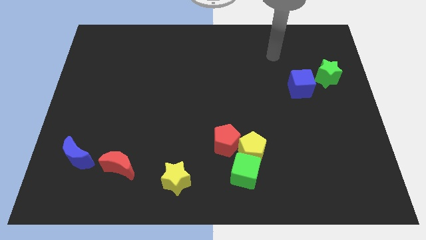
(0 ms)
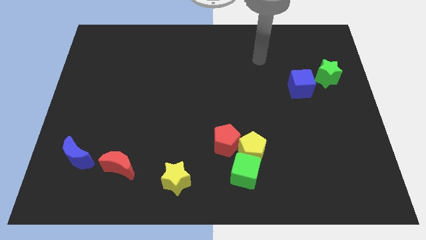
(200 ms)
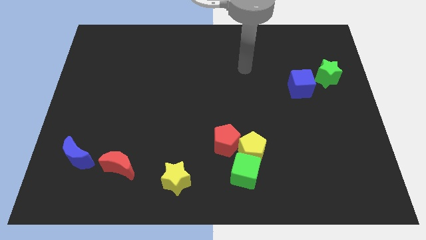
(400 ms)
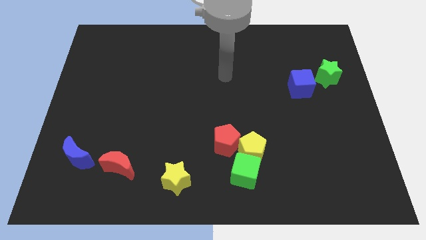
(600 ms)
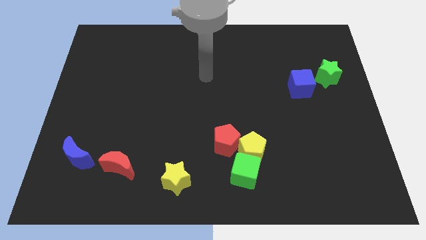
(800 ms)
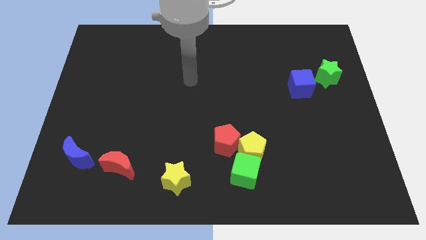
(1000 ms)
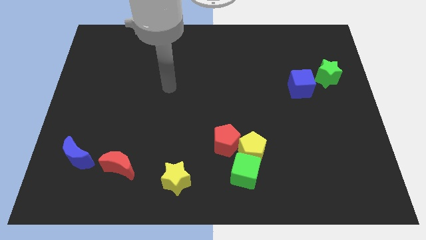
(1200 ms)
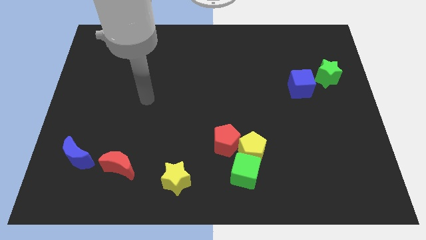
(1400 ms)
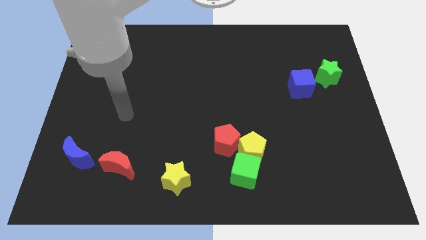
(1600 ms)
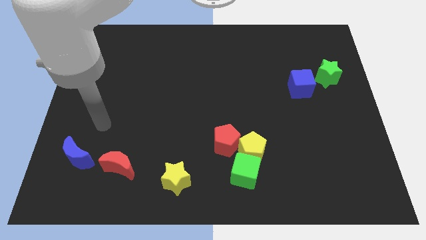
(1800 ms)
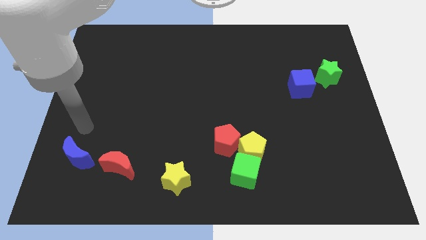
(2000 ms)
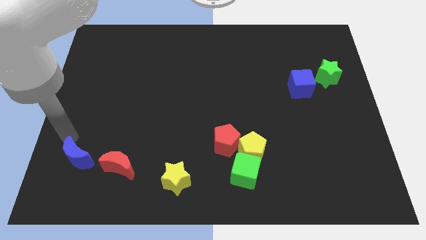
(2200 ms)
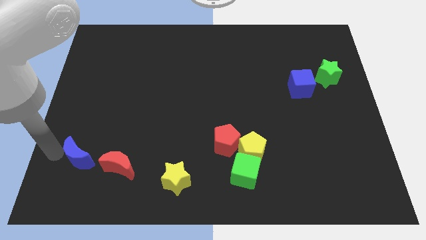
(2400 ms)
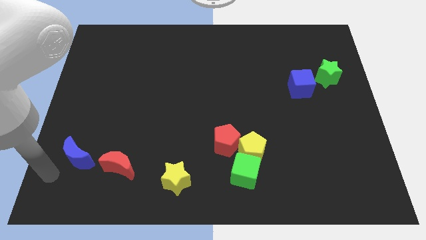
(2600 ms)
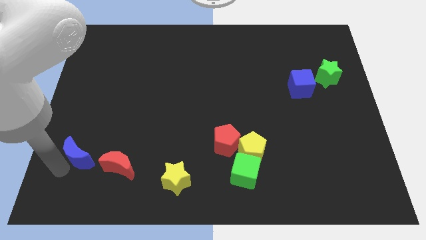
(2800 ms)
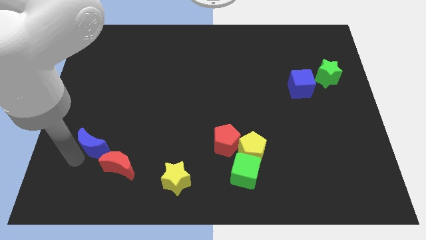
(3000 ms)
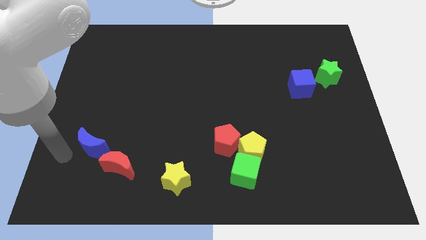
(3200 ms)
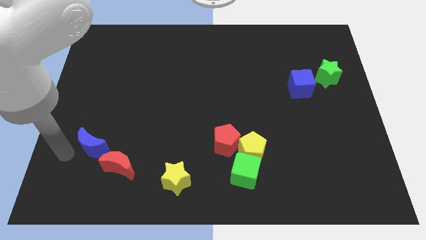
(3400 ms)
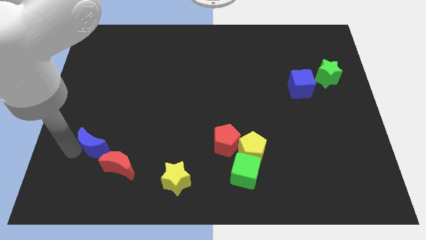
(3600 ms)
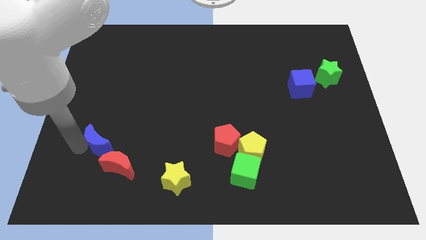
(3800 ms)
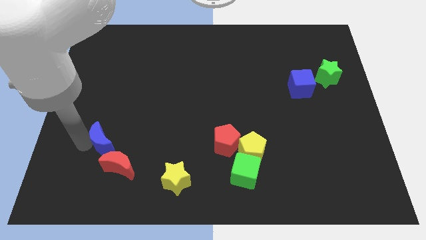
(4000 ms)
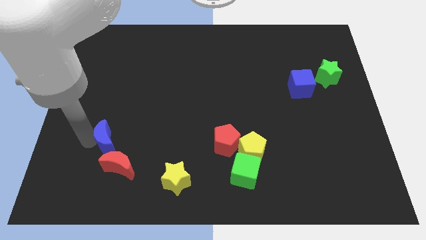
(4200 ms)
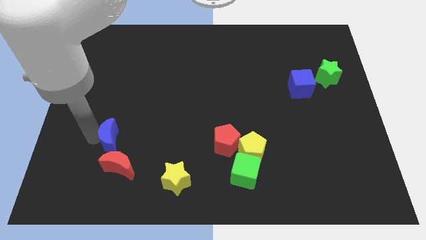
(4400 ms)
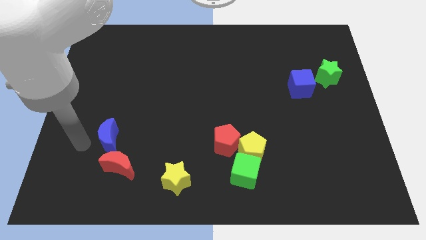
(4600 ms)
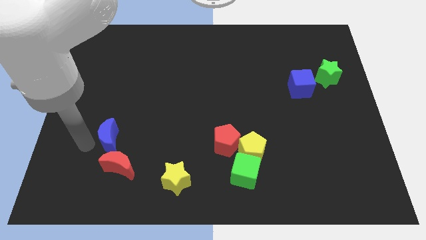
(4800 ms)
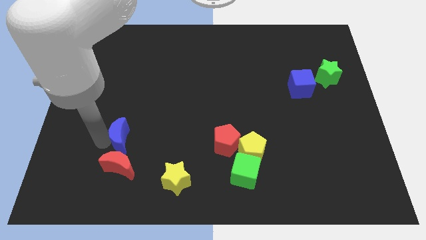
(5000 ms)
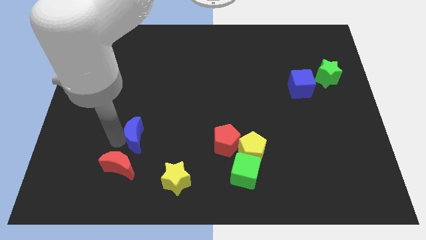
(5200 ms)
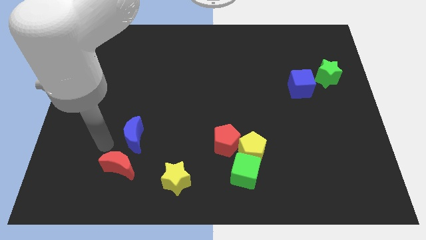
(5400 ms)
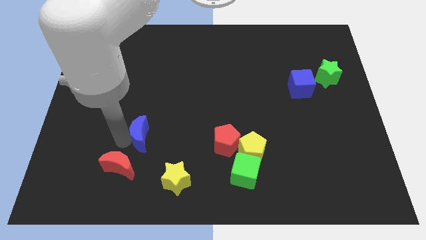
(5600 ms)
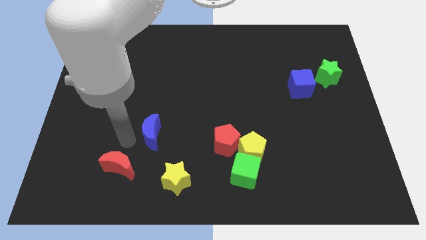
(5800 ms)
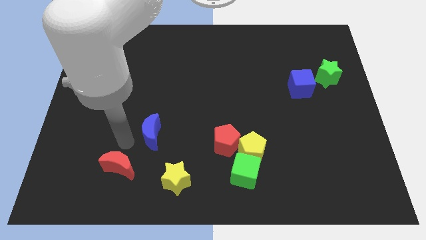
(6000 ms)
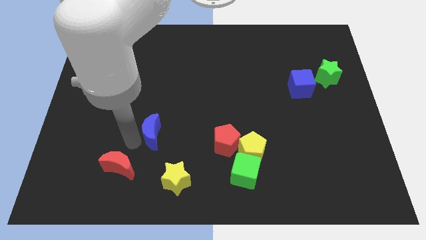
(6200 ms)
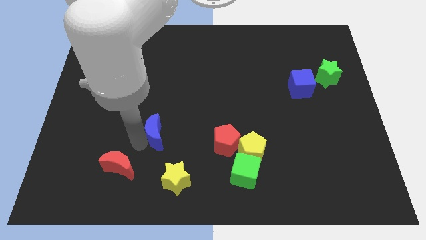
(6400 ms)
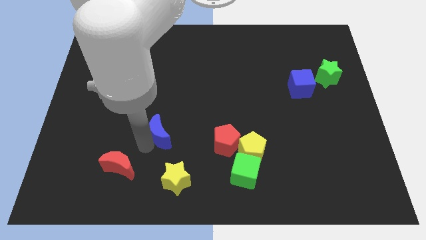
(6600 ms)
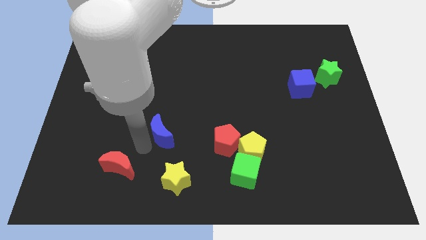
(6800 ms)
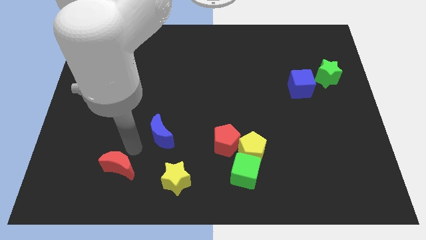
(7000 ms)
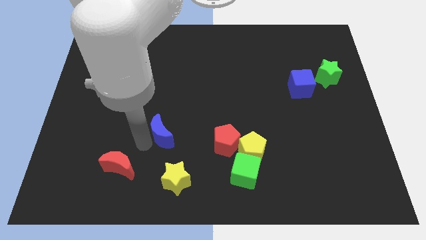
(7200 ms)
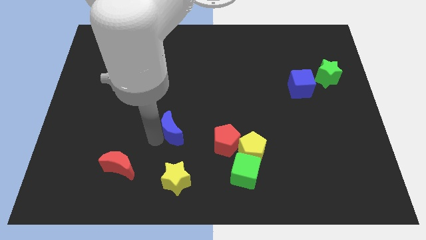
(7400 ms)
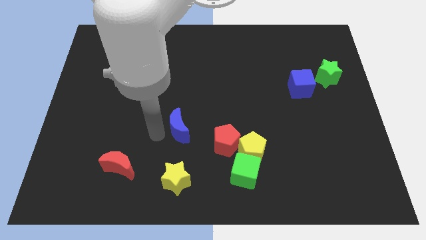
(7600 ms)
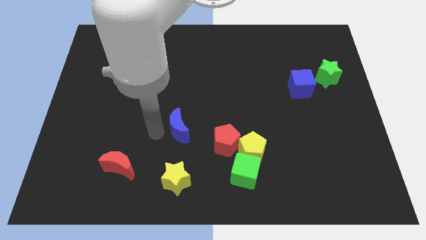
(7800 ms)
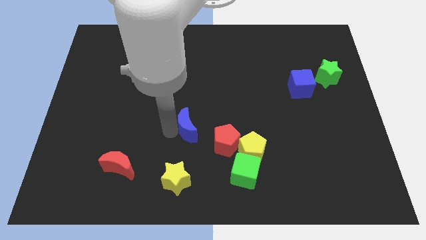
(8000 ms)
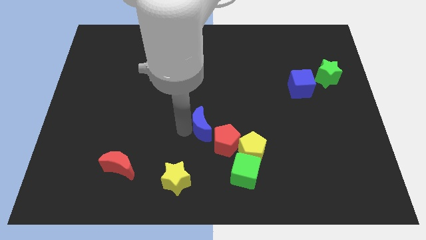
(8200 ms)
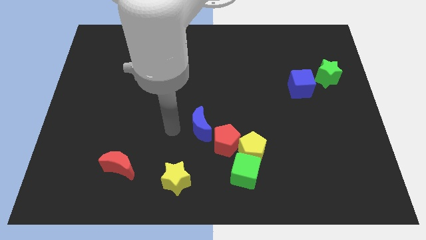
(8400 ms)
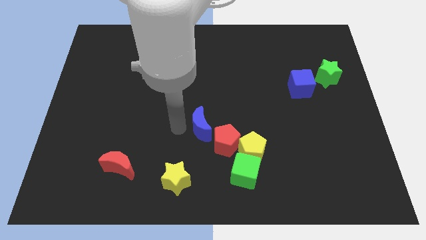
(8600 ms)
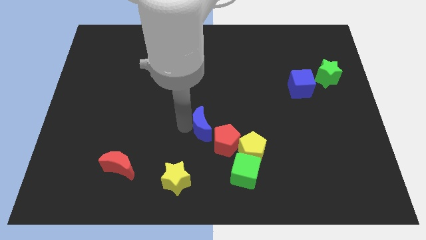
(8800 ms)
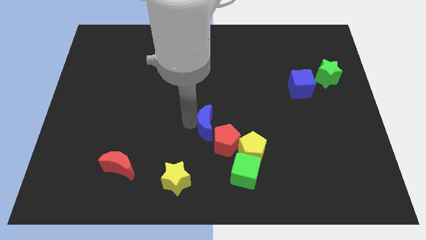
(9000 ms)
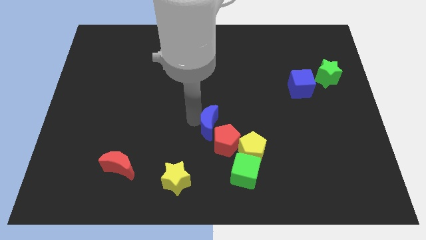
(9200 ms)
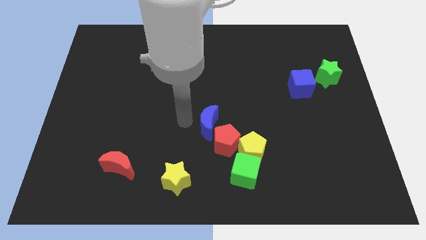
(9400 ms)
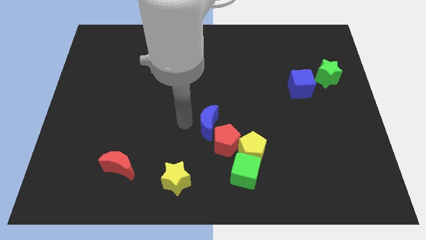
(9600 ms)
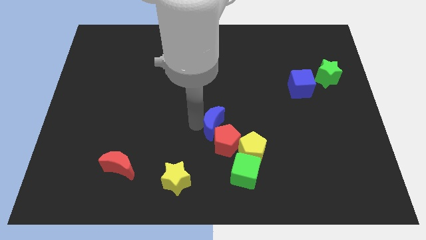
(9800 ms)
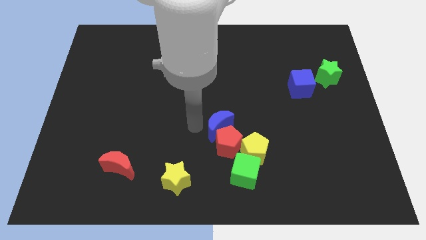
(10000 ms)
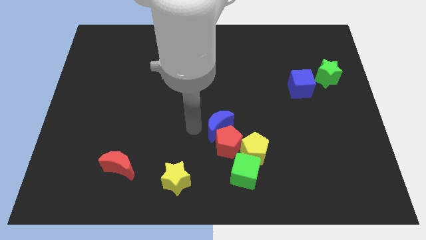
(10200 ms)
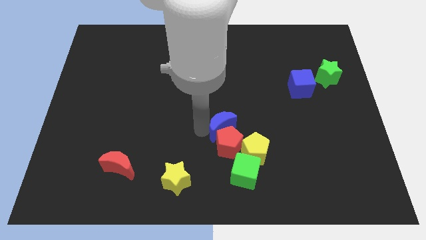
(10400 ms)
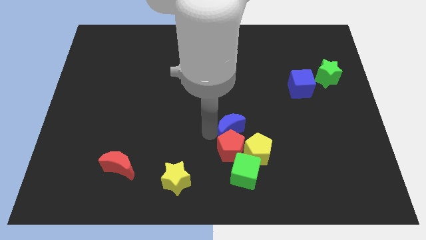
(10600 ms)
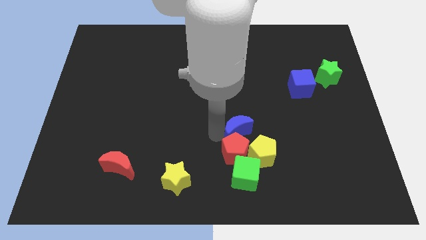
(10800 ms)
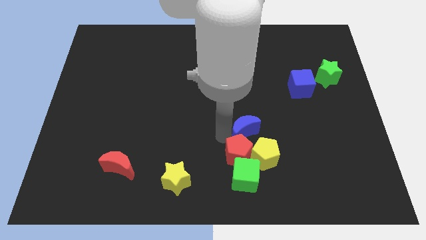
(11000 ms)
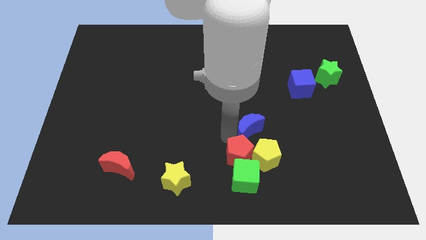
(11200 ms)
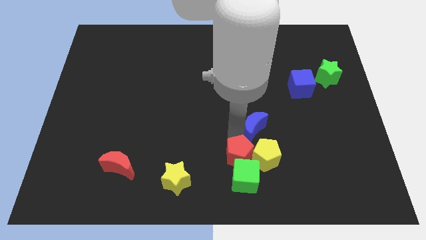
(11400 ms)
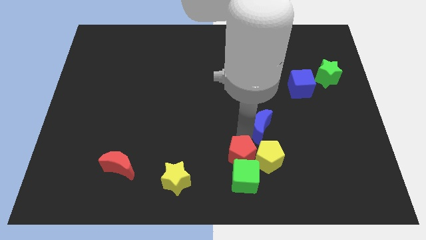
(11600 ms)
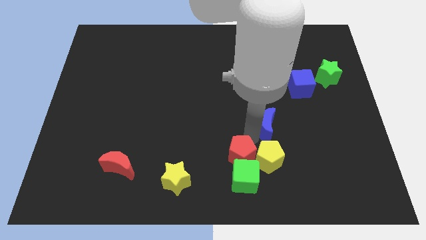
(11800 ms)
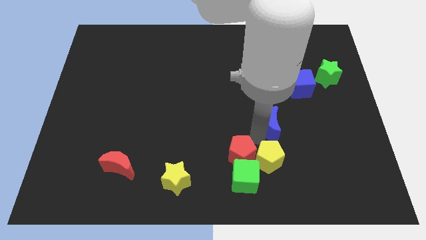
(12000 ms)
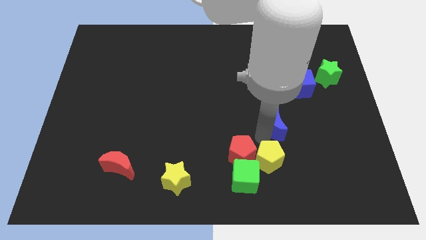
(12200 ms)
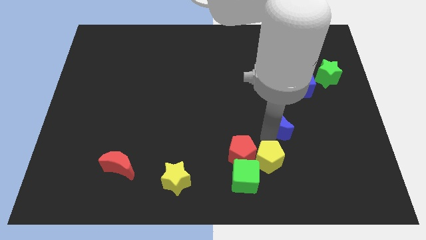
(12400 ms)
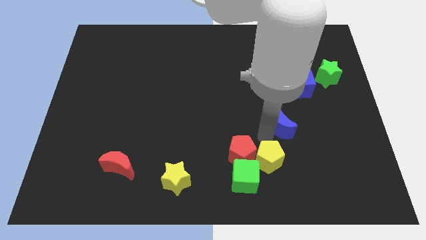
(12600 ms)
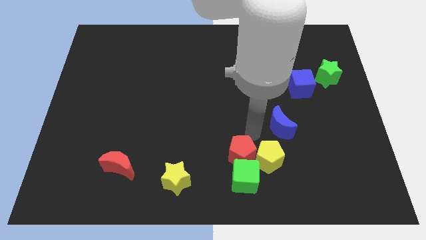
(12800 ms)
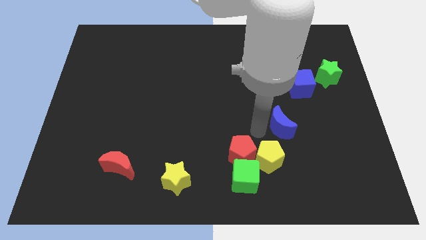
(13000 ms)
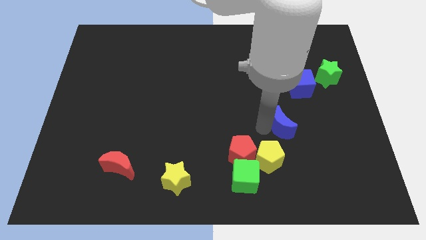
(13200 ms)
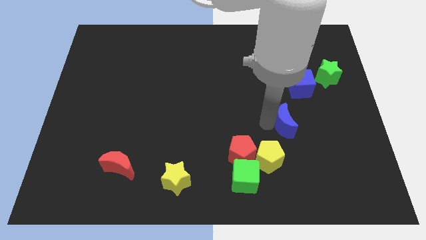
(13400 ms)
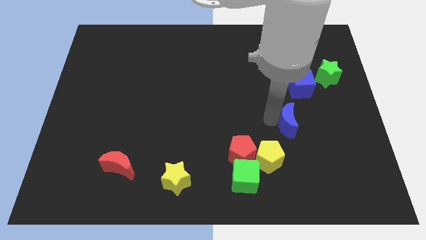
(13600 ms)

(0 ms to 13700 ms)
put the blue moon to the bottom of the blue cube
